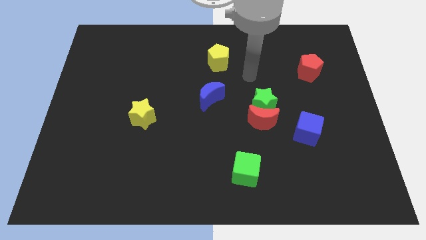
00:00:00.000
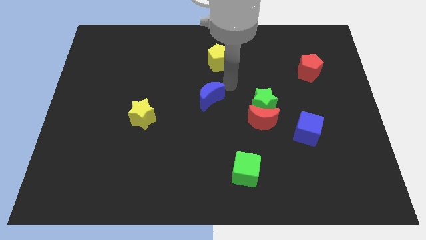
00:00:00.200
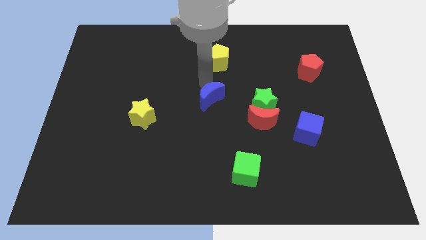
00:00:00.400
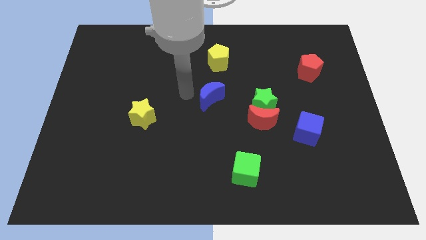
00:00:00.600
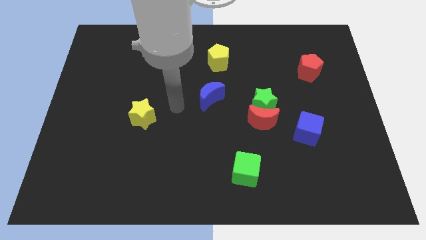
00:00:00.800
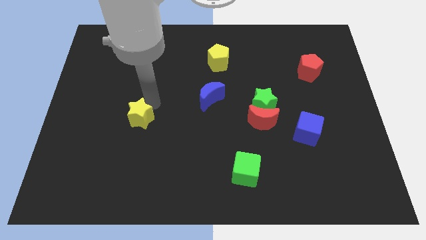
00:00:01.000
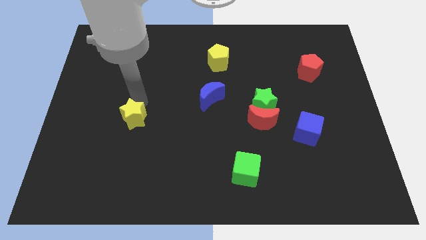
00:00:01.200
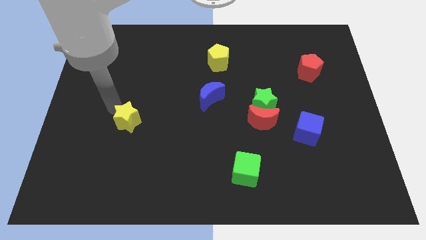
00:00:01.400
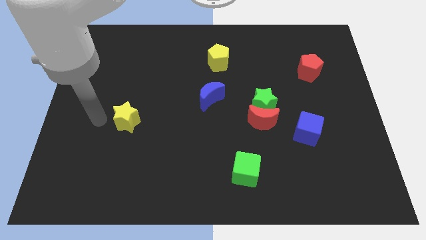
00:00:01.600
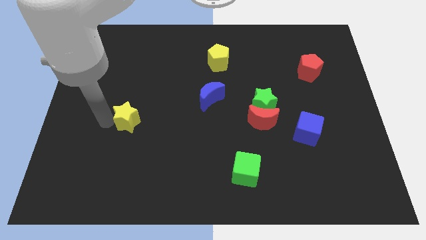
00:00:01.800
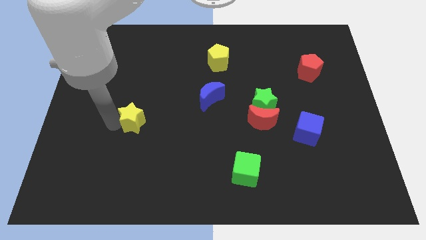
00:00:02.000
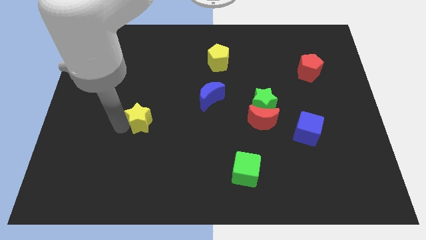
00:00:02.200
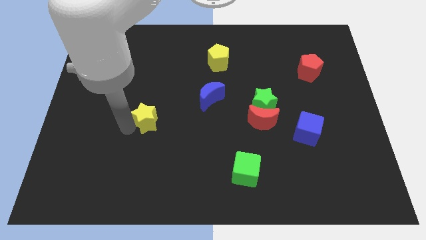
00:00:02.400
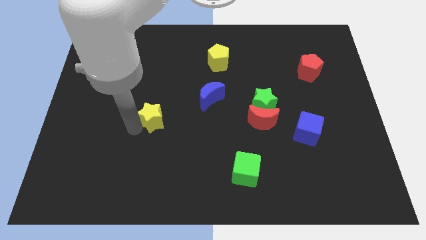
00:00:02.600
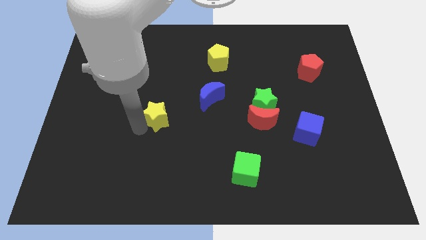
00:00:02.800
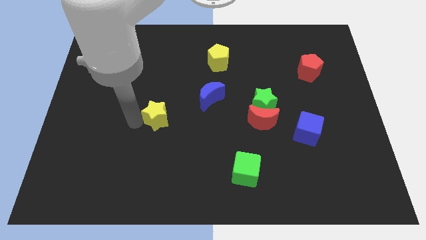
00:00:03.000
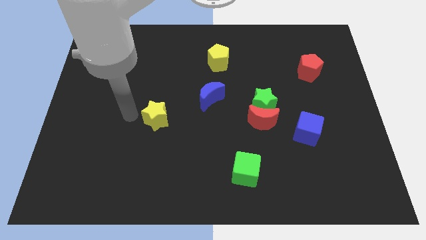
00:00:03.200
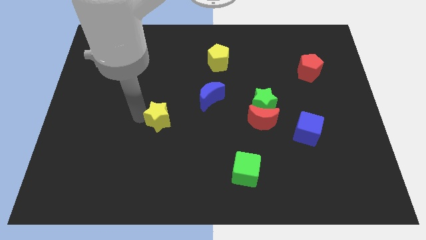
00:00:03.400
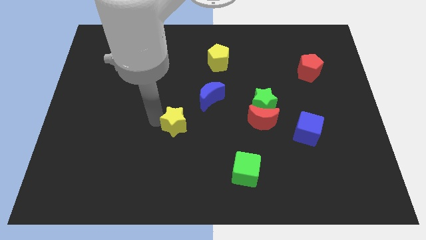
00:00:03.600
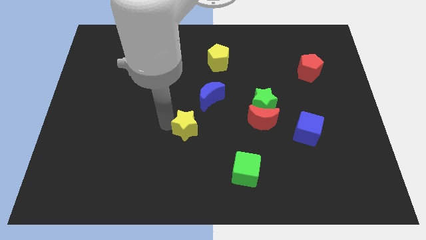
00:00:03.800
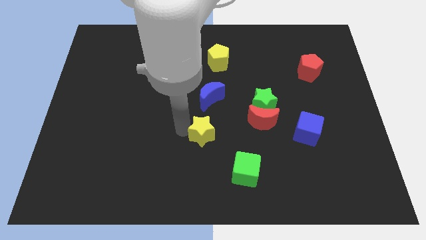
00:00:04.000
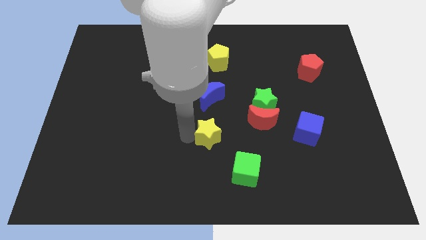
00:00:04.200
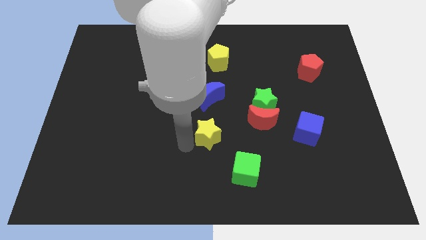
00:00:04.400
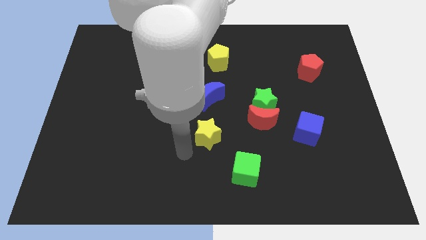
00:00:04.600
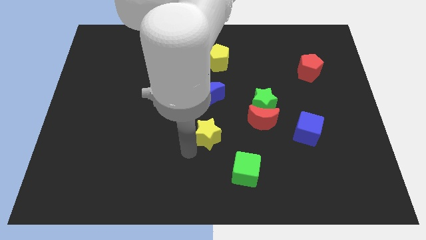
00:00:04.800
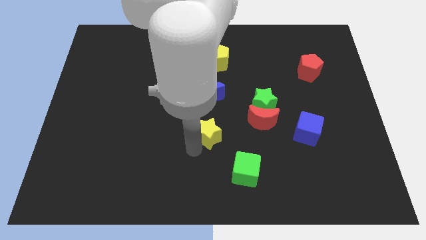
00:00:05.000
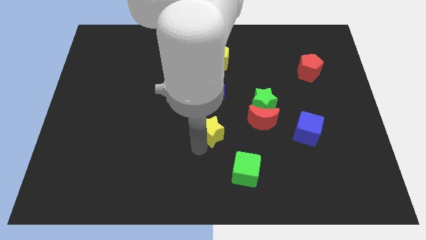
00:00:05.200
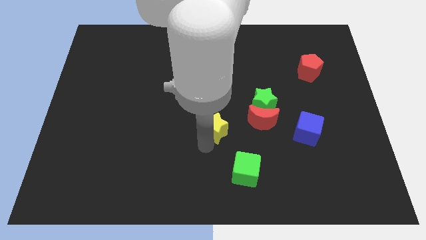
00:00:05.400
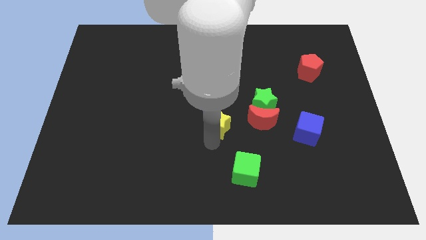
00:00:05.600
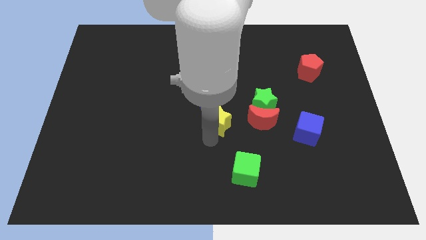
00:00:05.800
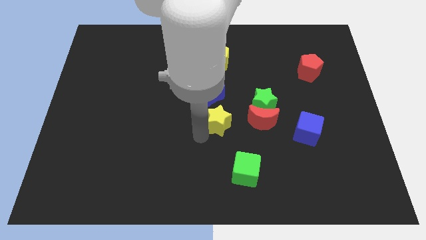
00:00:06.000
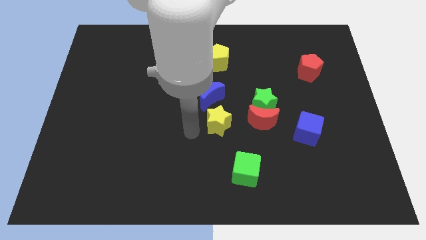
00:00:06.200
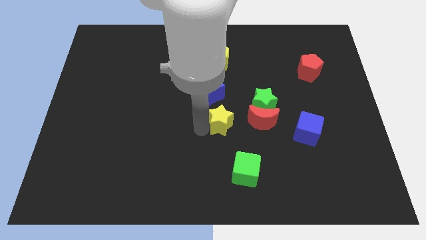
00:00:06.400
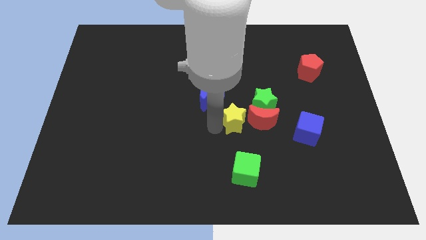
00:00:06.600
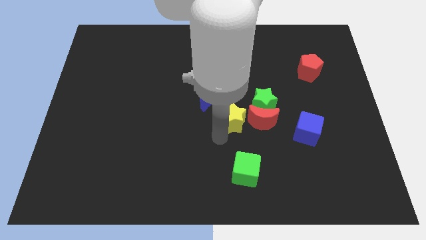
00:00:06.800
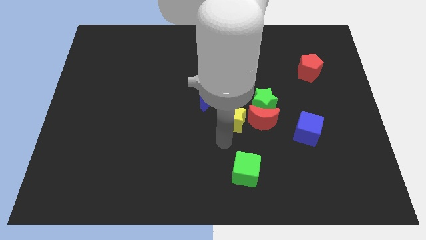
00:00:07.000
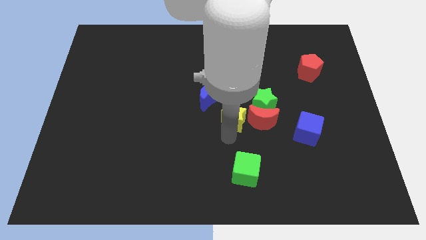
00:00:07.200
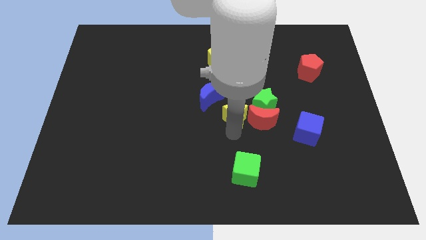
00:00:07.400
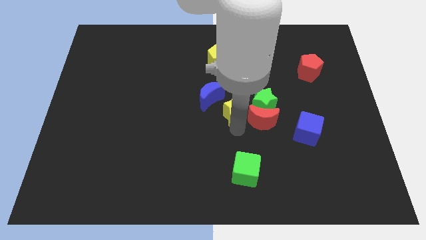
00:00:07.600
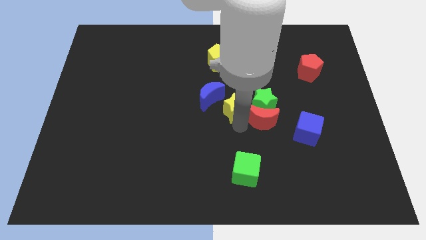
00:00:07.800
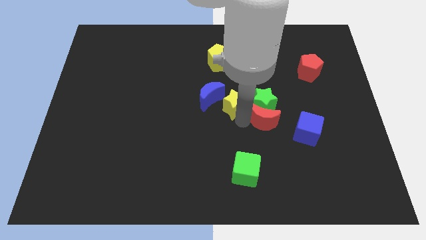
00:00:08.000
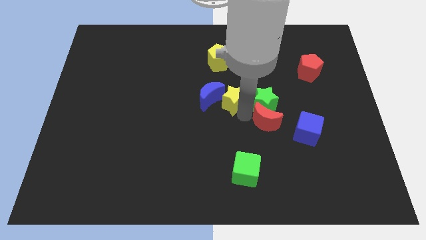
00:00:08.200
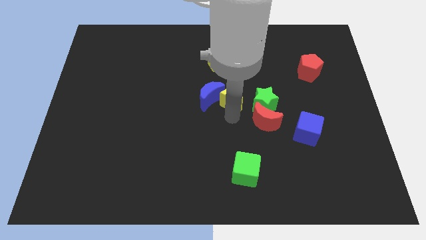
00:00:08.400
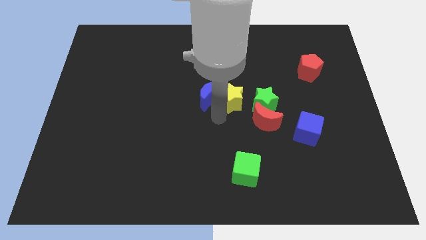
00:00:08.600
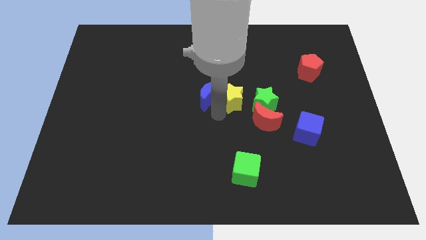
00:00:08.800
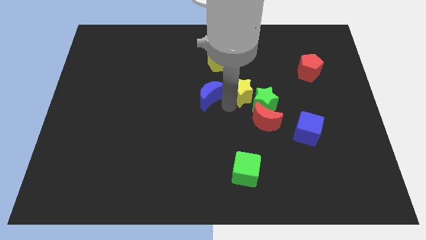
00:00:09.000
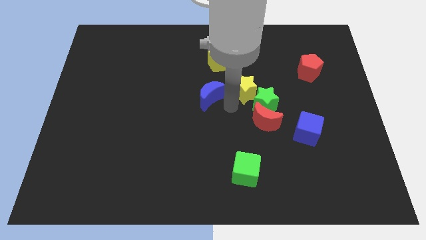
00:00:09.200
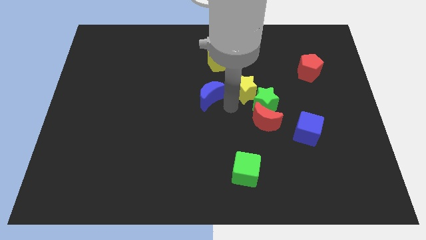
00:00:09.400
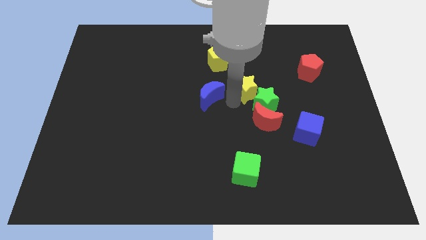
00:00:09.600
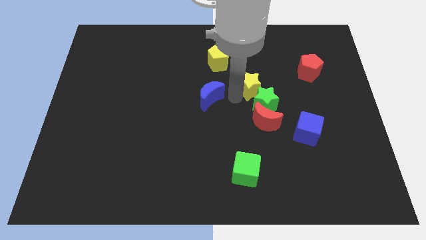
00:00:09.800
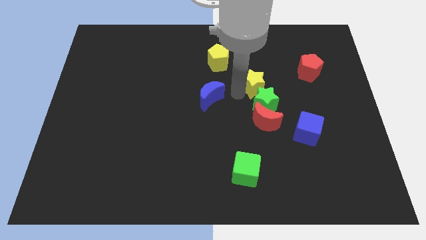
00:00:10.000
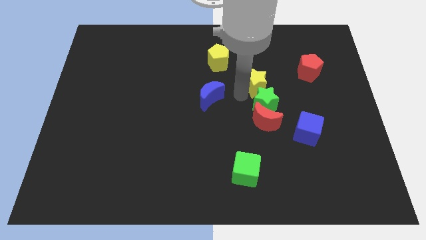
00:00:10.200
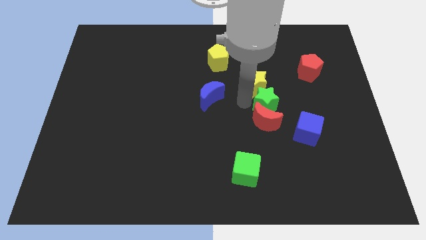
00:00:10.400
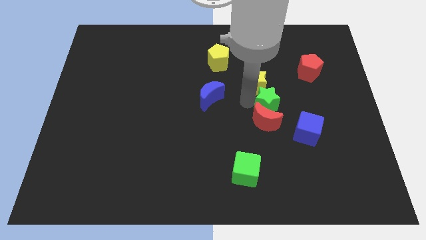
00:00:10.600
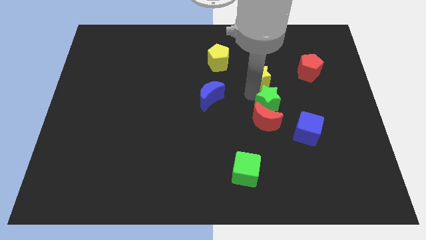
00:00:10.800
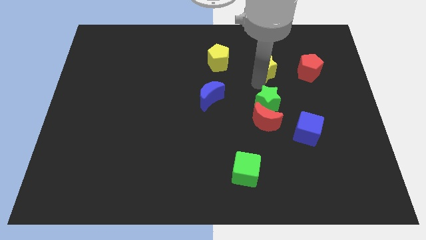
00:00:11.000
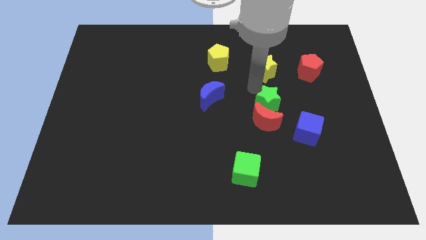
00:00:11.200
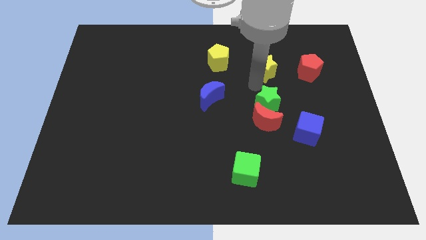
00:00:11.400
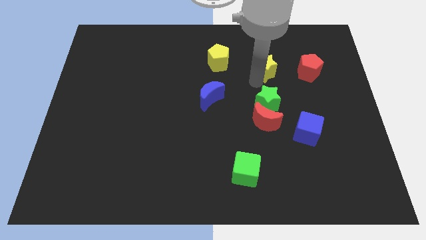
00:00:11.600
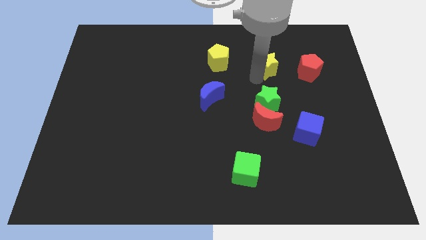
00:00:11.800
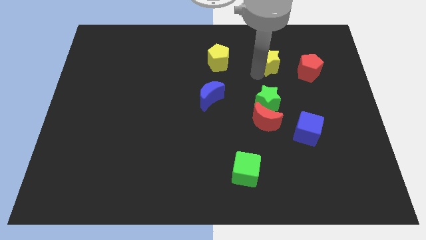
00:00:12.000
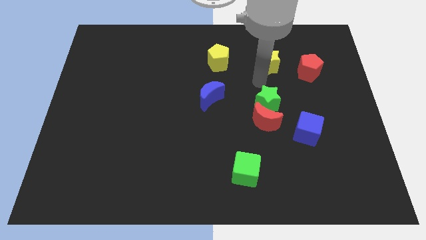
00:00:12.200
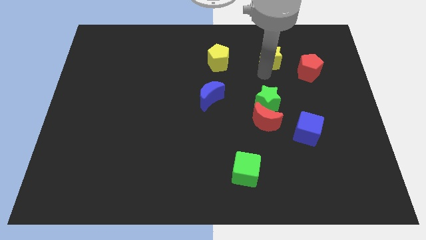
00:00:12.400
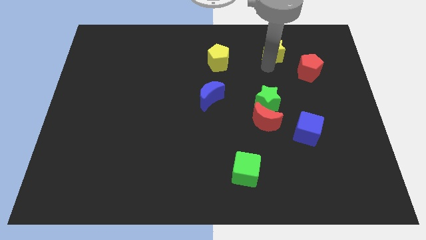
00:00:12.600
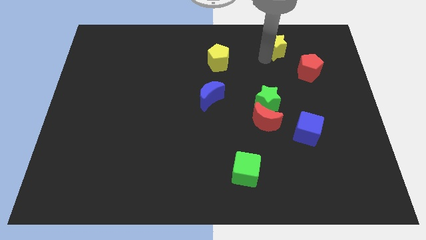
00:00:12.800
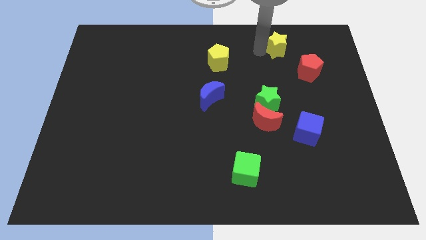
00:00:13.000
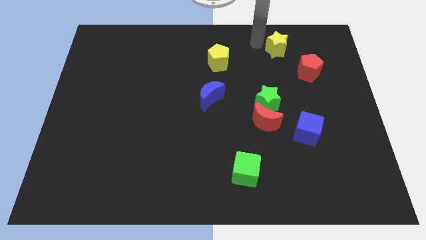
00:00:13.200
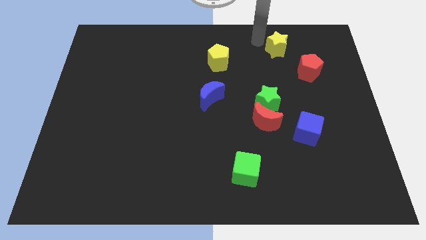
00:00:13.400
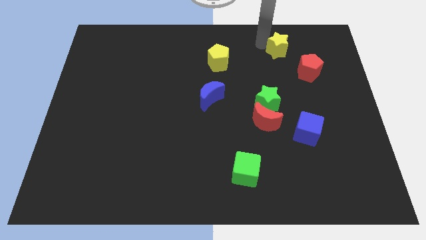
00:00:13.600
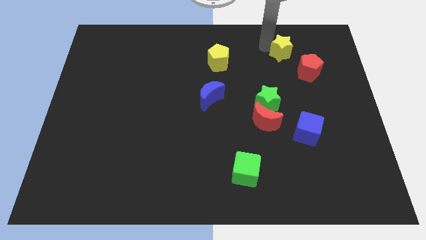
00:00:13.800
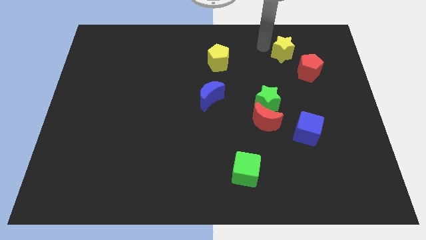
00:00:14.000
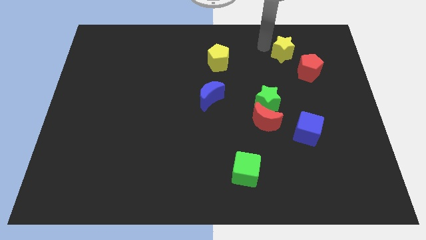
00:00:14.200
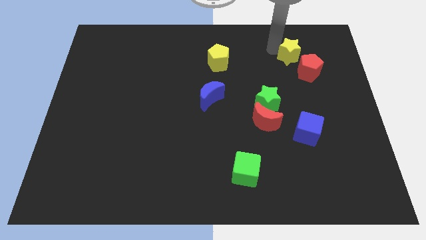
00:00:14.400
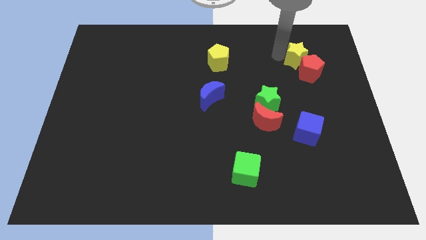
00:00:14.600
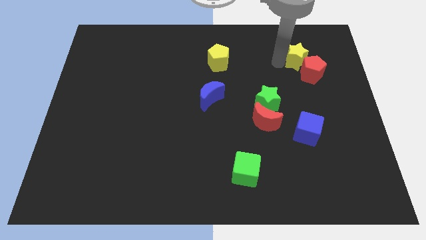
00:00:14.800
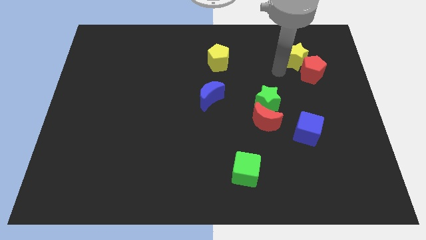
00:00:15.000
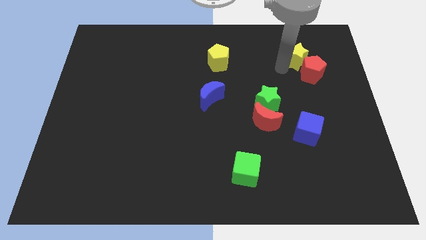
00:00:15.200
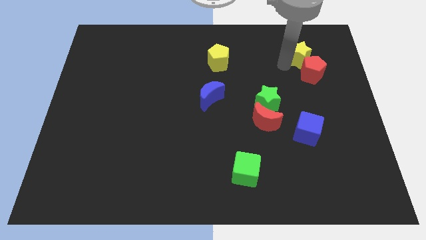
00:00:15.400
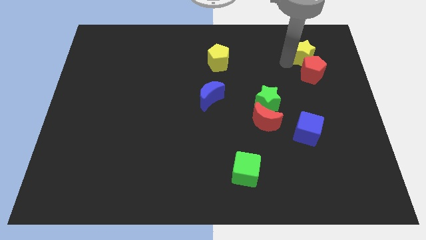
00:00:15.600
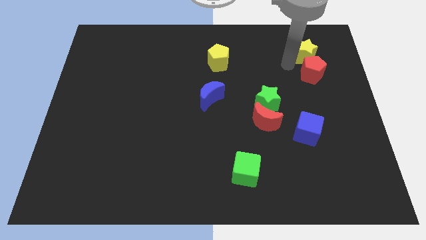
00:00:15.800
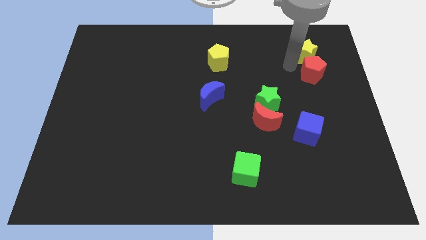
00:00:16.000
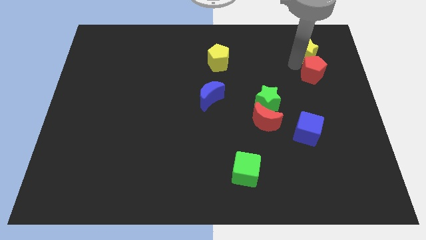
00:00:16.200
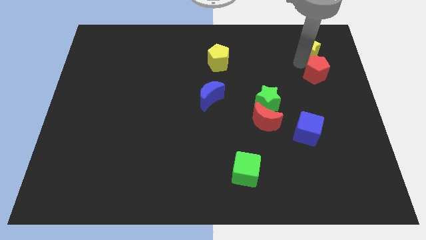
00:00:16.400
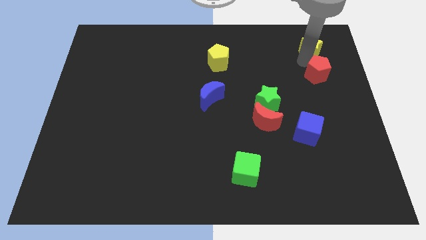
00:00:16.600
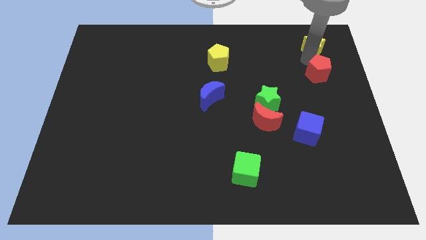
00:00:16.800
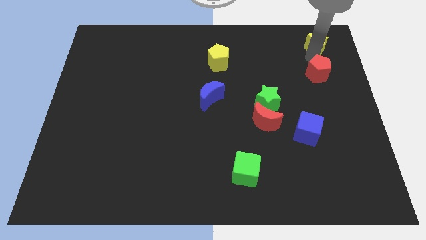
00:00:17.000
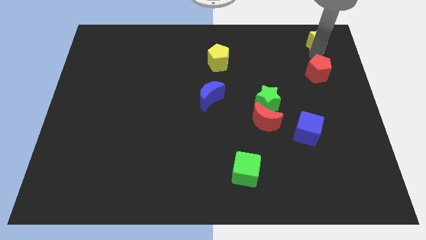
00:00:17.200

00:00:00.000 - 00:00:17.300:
move the yellow star to the top right corner
